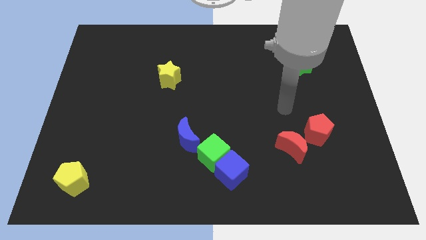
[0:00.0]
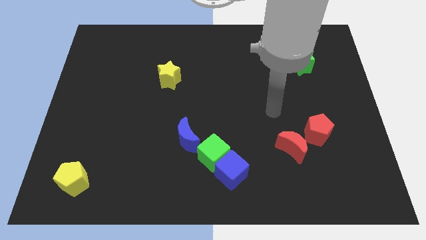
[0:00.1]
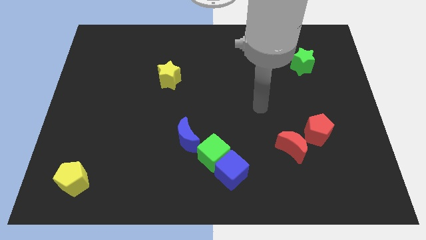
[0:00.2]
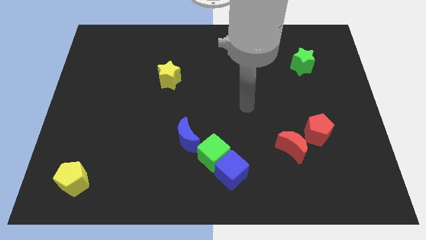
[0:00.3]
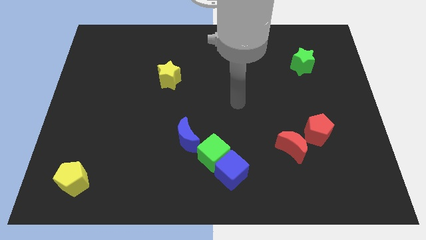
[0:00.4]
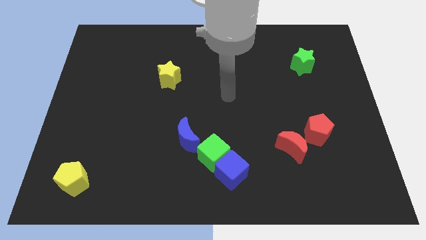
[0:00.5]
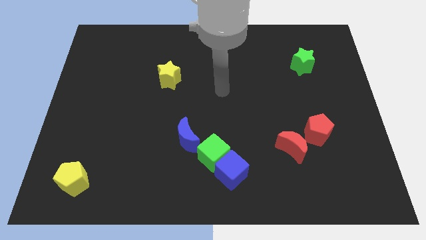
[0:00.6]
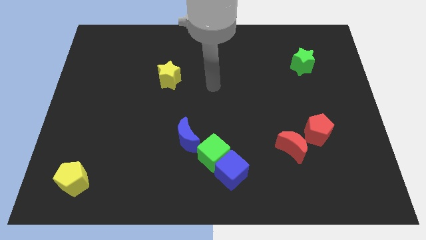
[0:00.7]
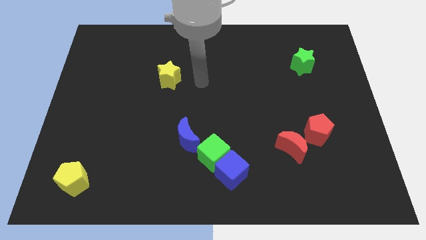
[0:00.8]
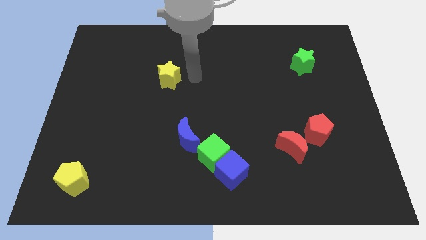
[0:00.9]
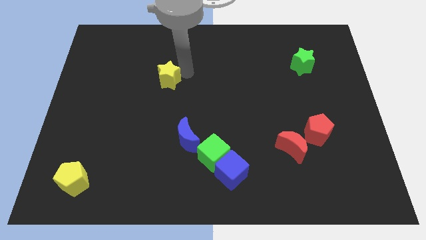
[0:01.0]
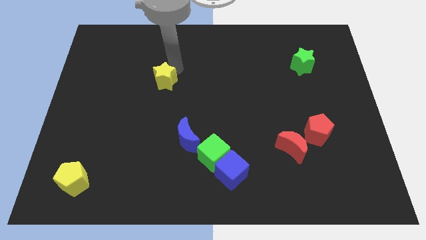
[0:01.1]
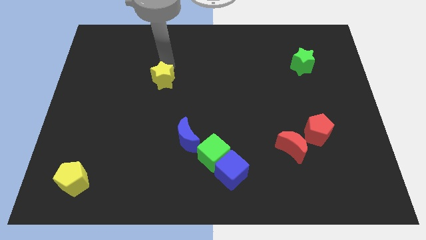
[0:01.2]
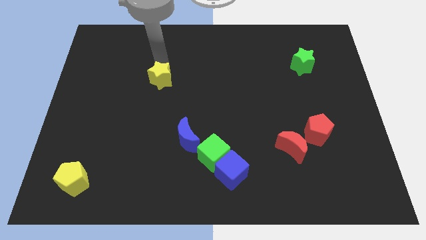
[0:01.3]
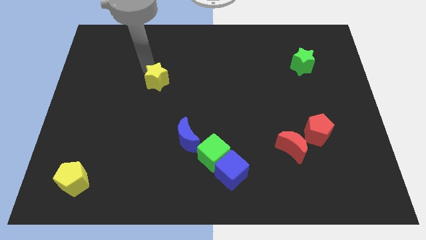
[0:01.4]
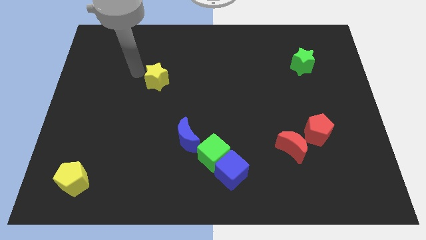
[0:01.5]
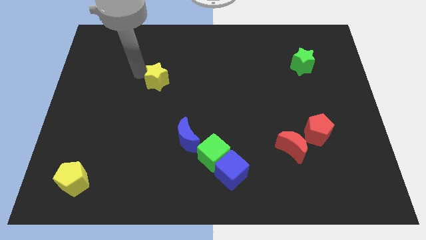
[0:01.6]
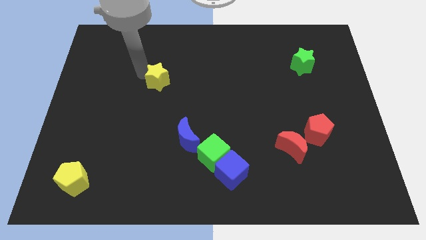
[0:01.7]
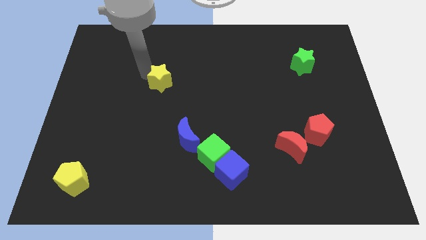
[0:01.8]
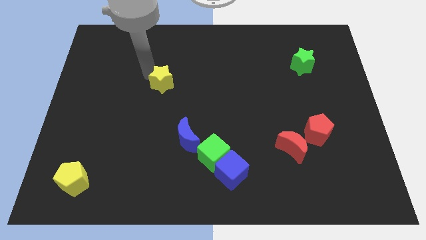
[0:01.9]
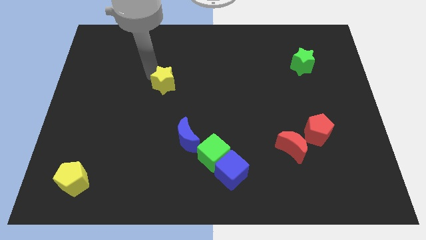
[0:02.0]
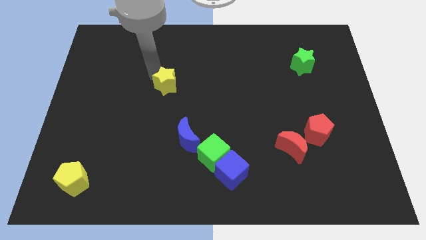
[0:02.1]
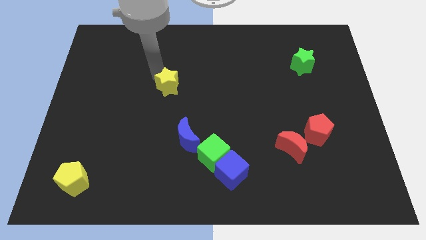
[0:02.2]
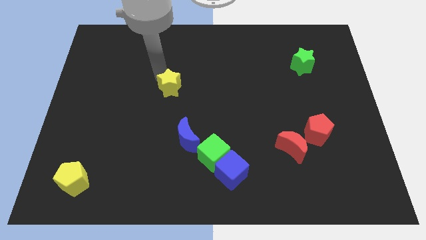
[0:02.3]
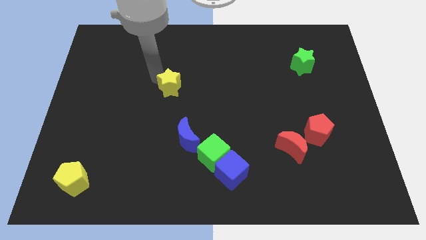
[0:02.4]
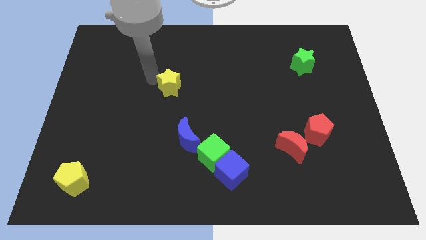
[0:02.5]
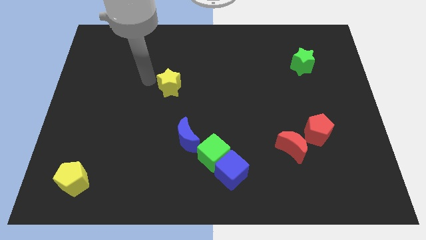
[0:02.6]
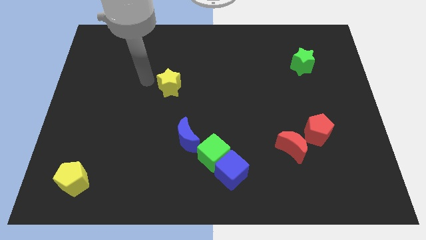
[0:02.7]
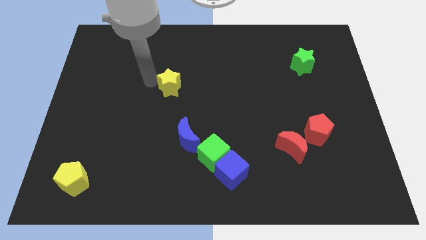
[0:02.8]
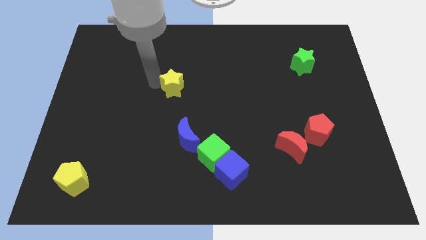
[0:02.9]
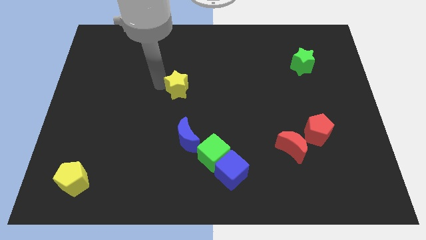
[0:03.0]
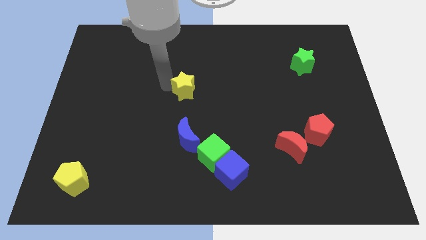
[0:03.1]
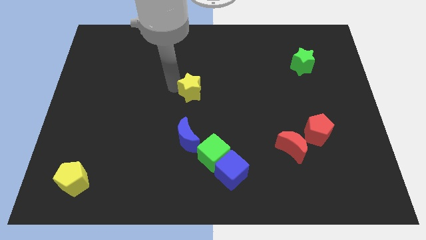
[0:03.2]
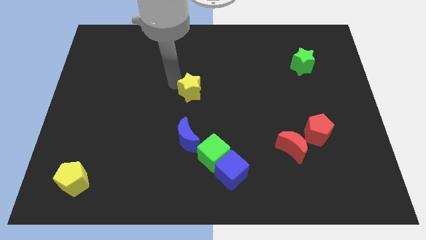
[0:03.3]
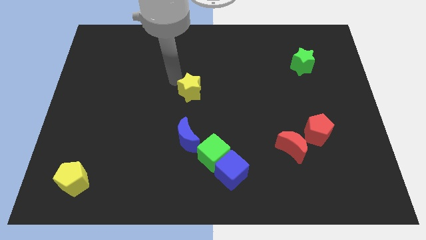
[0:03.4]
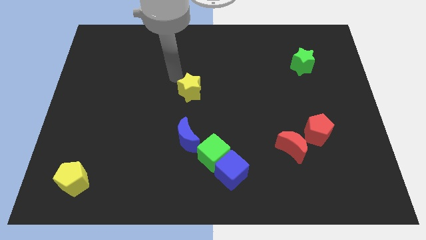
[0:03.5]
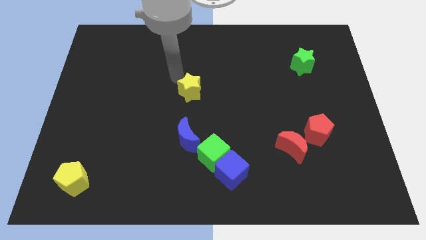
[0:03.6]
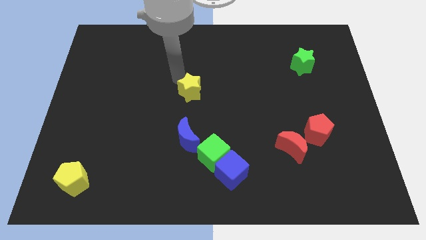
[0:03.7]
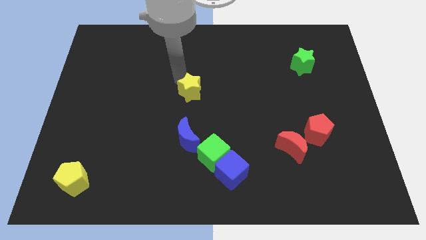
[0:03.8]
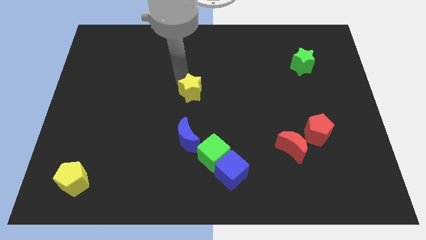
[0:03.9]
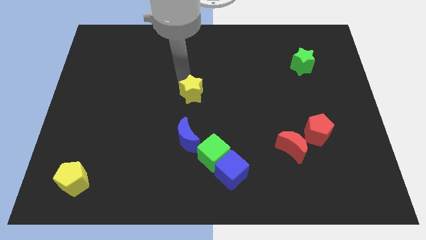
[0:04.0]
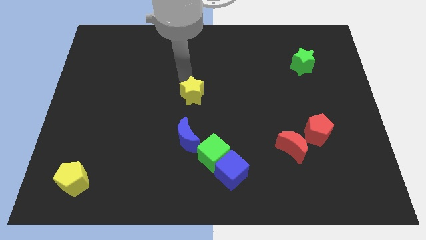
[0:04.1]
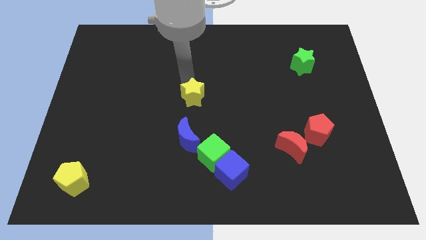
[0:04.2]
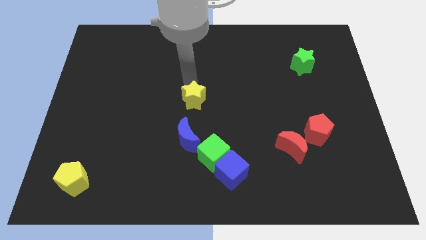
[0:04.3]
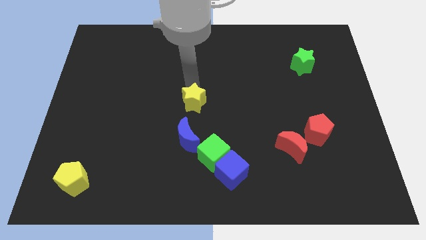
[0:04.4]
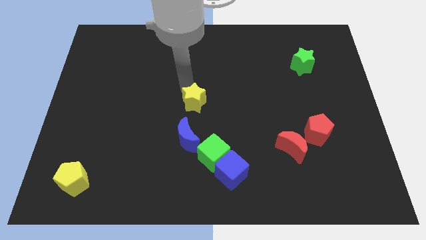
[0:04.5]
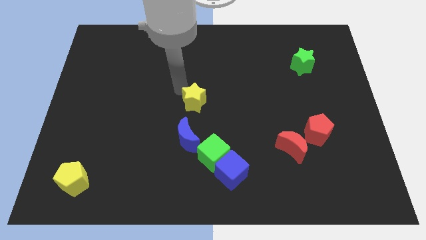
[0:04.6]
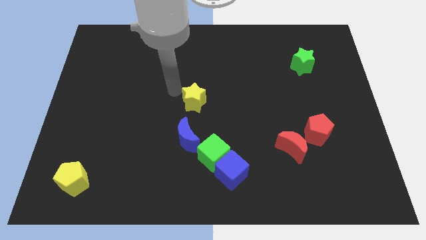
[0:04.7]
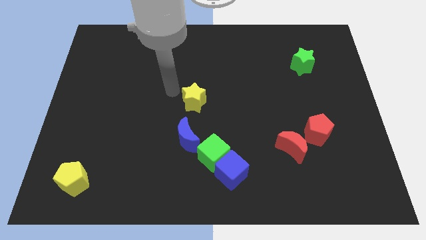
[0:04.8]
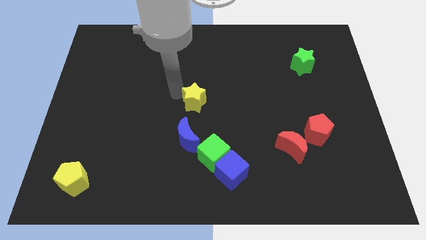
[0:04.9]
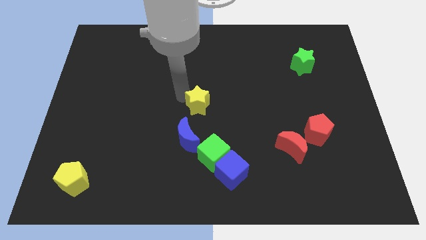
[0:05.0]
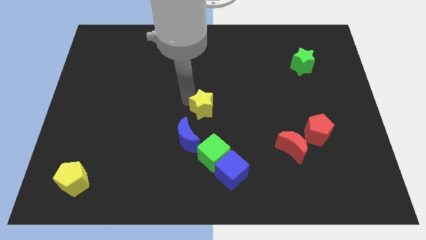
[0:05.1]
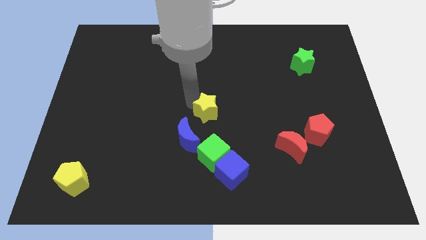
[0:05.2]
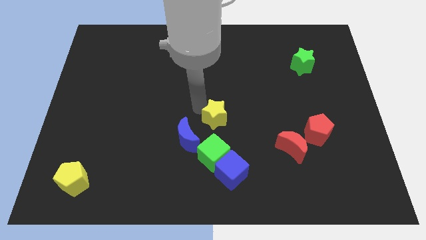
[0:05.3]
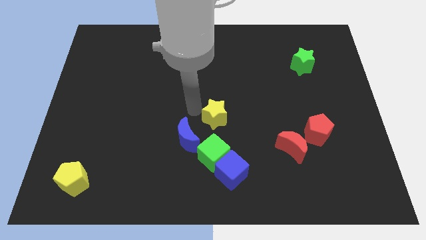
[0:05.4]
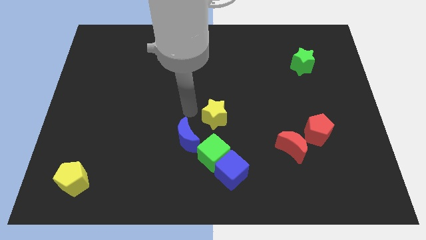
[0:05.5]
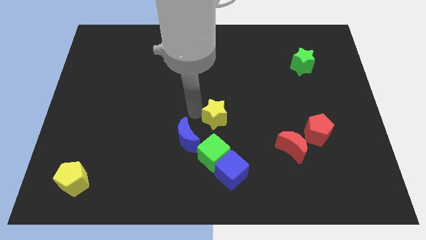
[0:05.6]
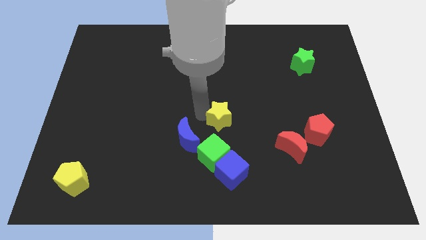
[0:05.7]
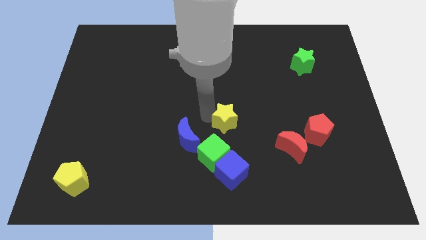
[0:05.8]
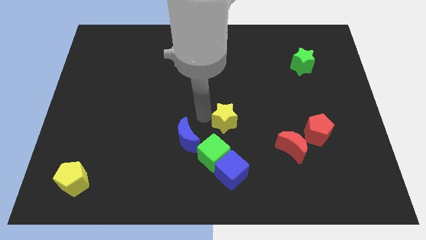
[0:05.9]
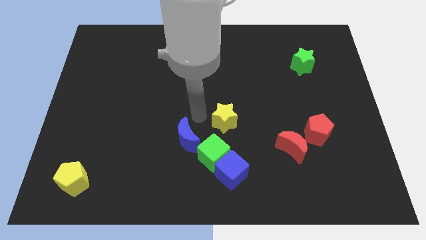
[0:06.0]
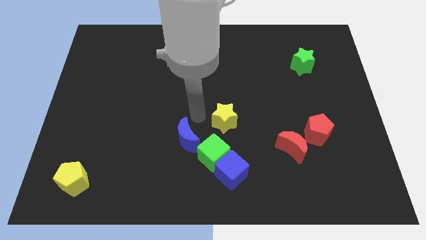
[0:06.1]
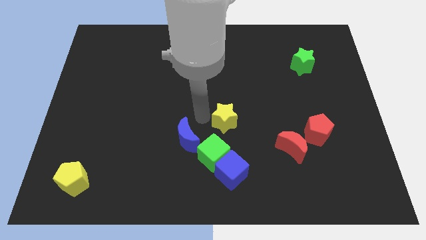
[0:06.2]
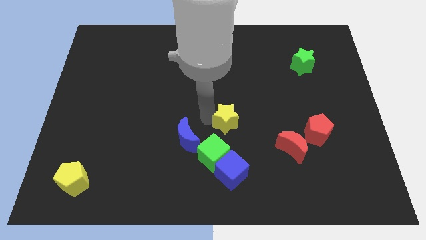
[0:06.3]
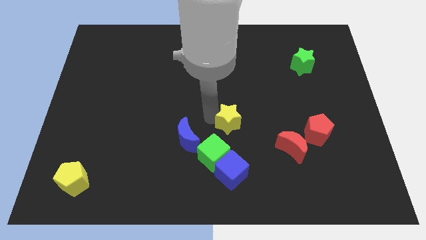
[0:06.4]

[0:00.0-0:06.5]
slide the yellow star down and to the right diagonally

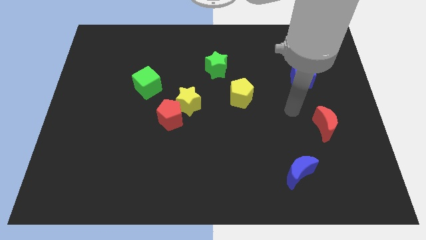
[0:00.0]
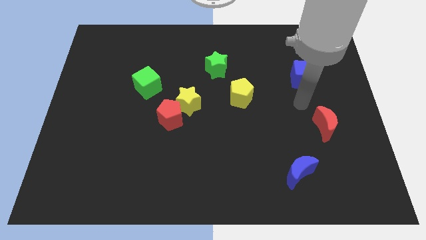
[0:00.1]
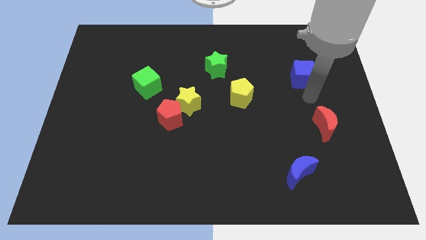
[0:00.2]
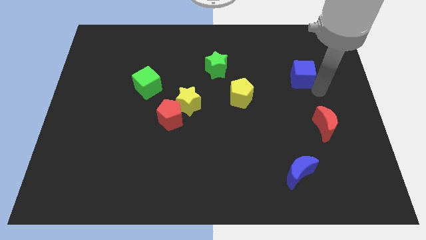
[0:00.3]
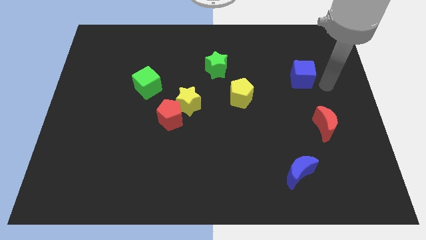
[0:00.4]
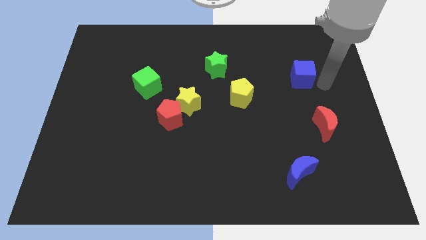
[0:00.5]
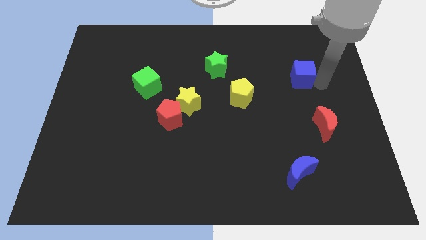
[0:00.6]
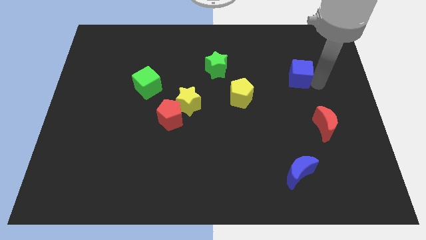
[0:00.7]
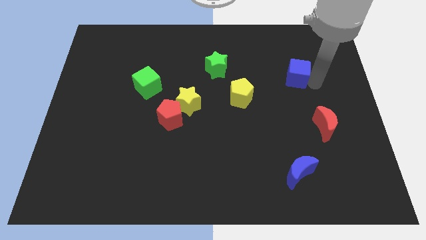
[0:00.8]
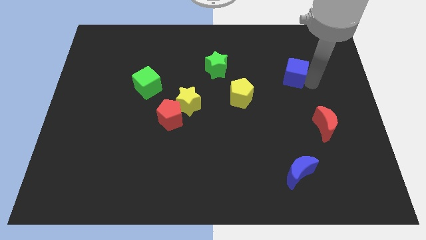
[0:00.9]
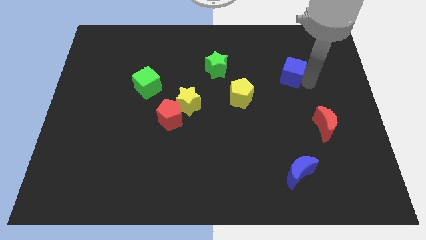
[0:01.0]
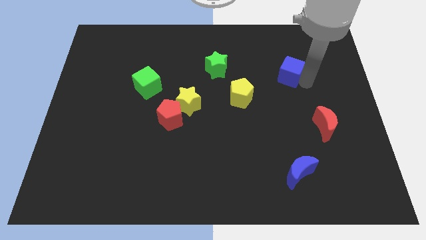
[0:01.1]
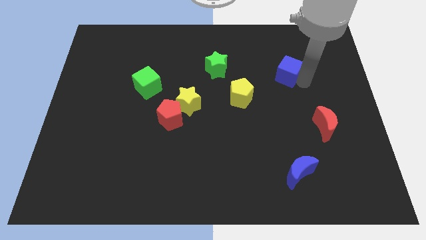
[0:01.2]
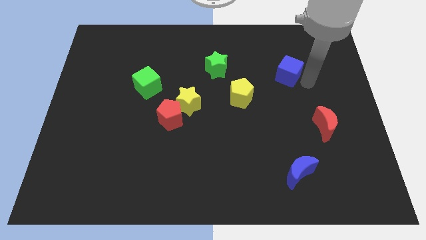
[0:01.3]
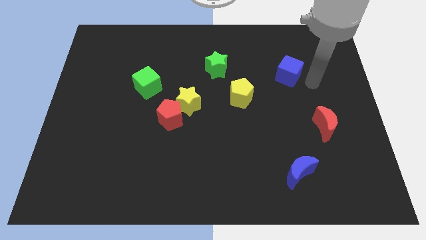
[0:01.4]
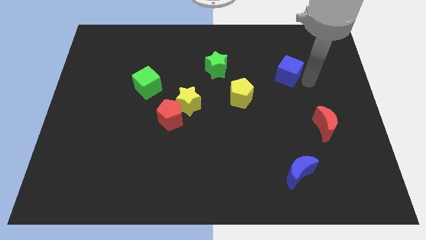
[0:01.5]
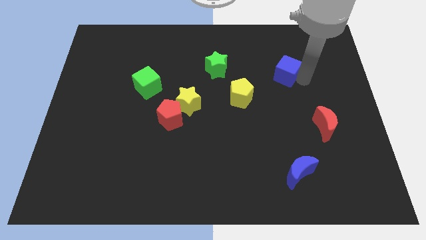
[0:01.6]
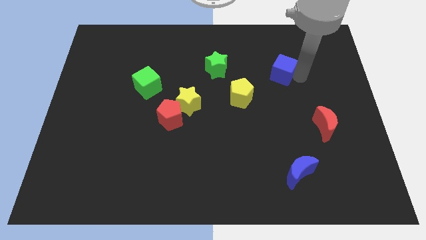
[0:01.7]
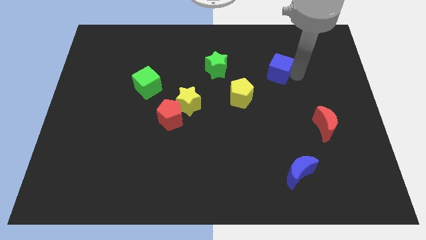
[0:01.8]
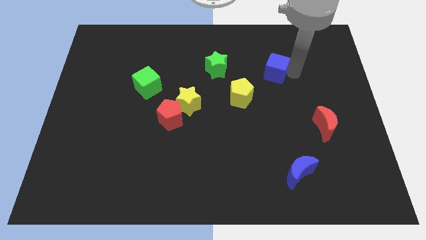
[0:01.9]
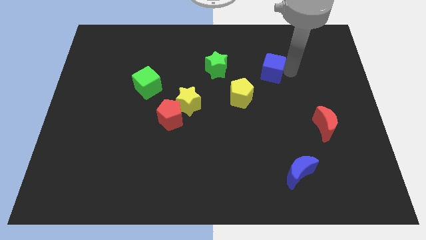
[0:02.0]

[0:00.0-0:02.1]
move the blue cube slightly to the left

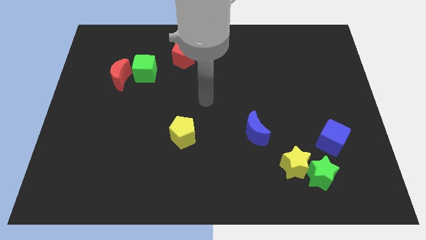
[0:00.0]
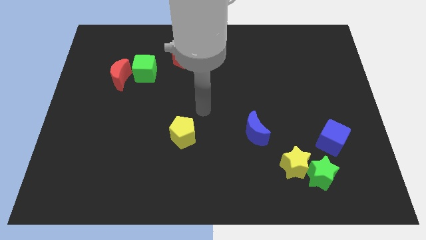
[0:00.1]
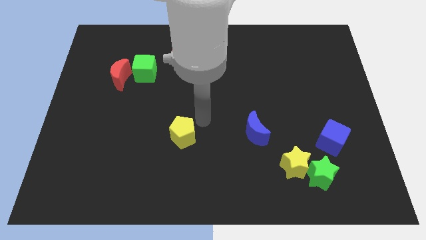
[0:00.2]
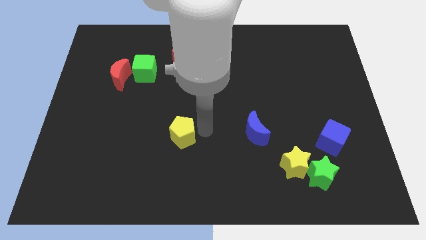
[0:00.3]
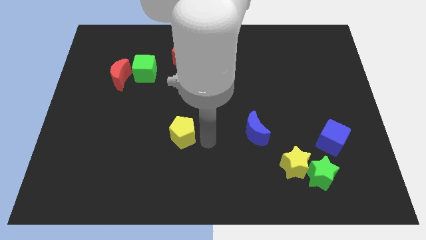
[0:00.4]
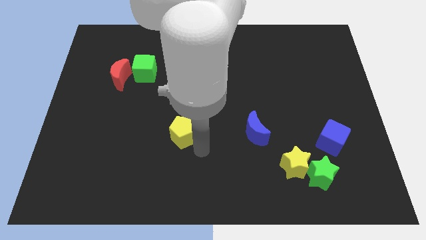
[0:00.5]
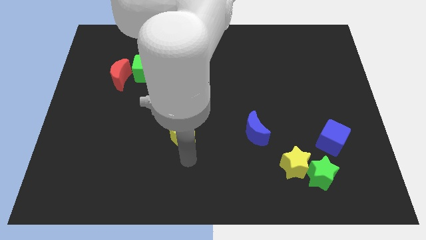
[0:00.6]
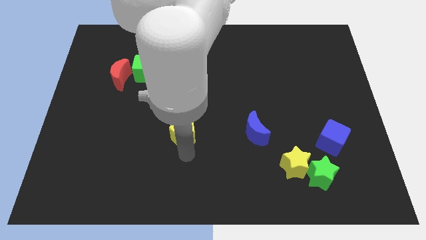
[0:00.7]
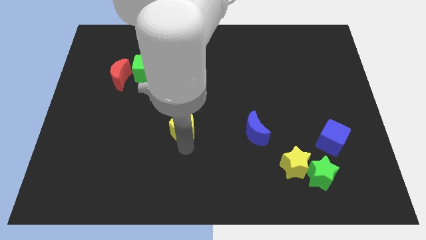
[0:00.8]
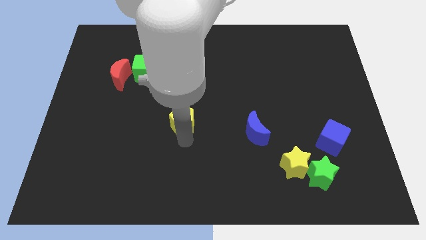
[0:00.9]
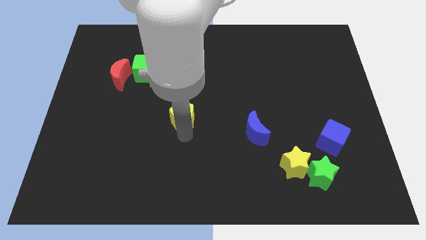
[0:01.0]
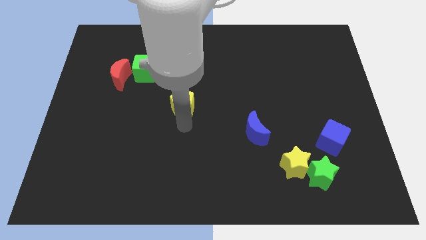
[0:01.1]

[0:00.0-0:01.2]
slide the yellow pentagon a bit upwards
